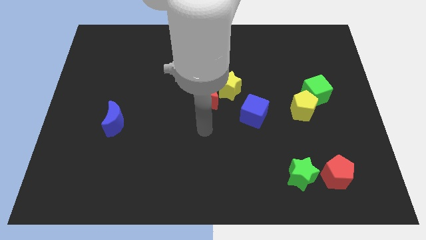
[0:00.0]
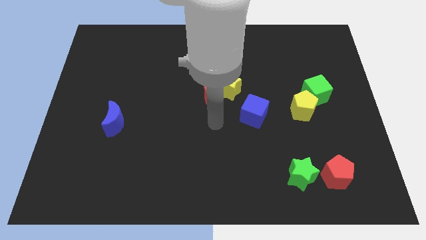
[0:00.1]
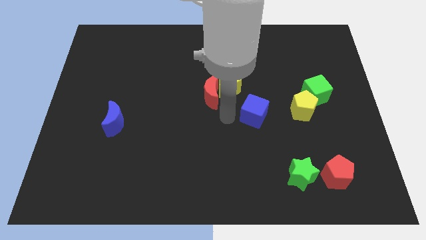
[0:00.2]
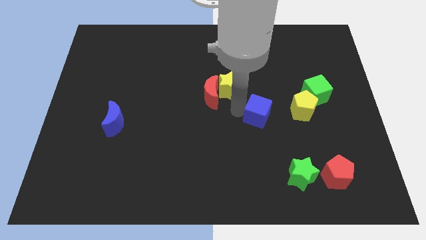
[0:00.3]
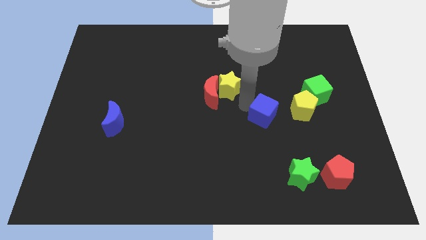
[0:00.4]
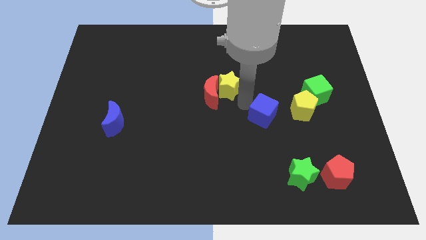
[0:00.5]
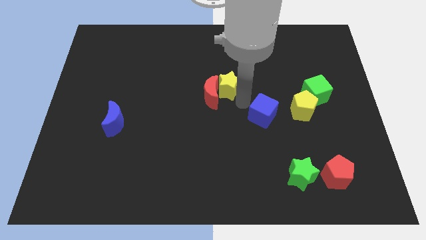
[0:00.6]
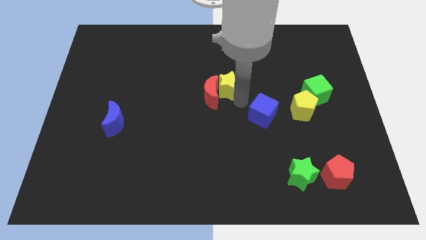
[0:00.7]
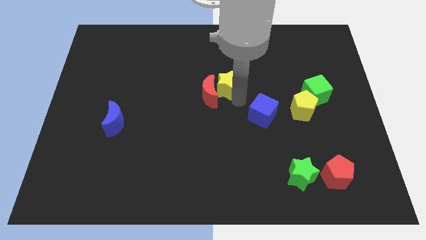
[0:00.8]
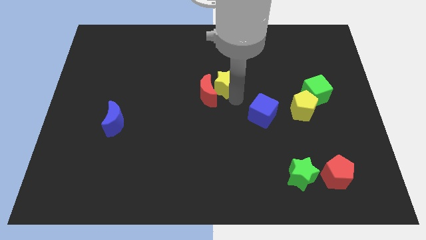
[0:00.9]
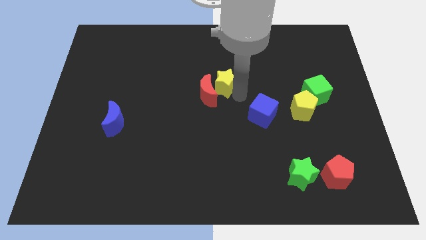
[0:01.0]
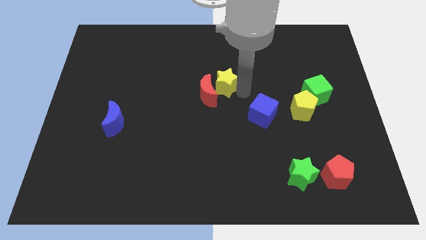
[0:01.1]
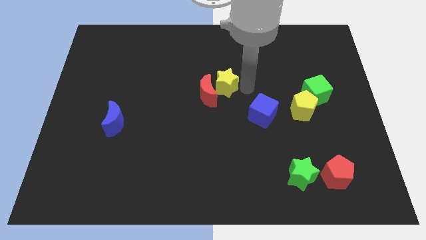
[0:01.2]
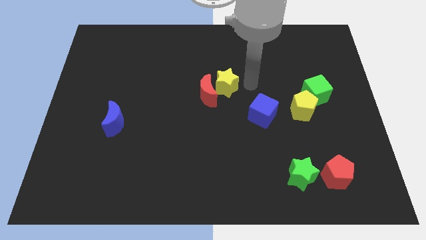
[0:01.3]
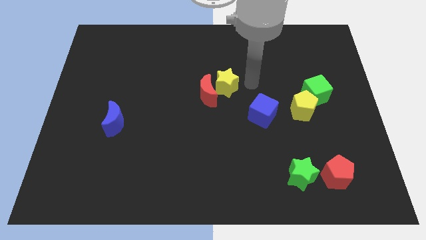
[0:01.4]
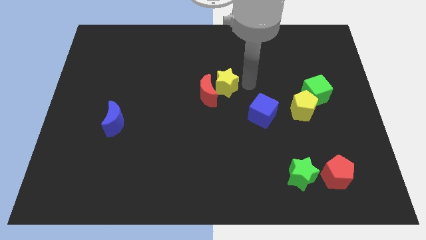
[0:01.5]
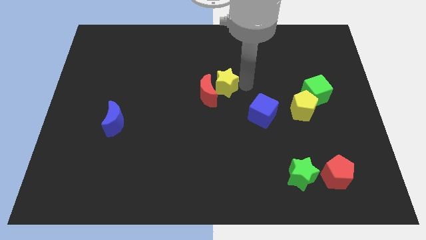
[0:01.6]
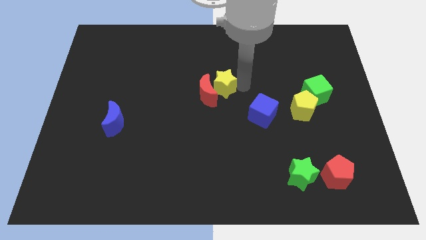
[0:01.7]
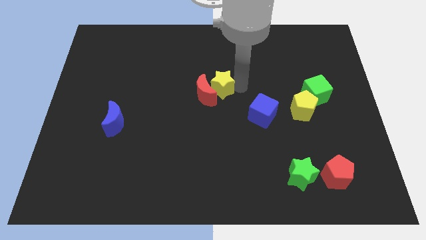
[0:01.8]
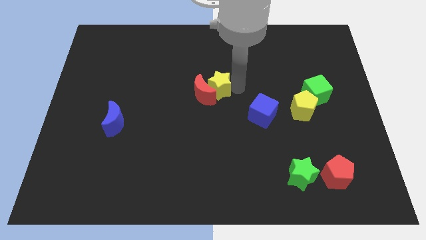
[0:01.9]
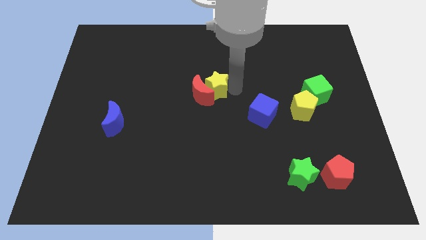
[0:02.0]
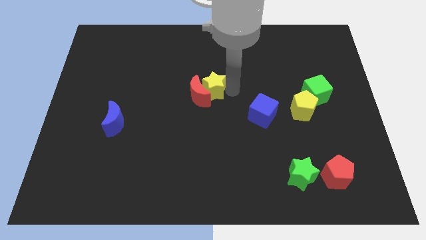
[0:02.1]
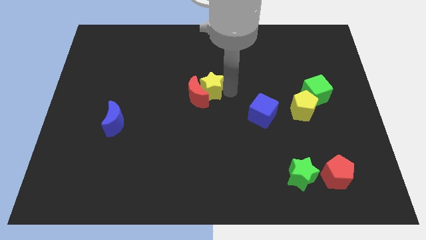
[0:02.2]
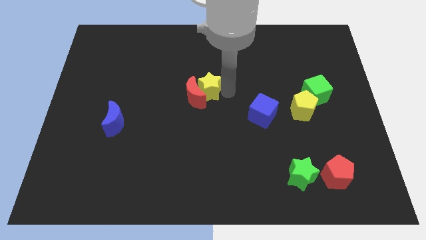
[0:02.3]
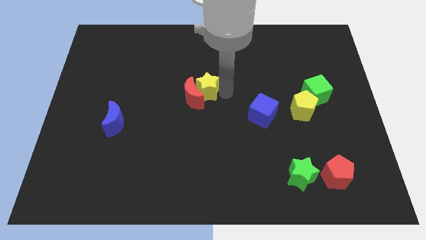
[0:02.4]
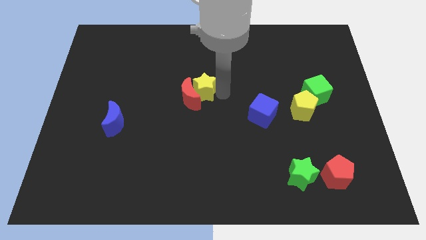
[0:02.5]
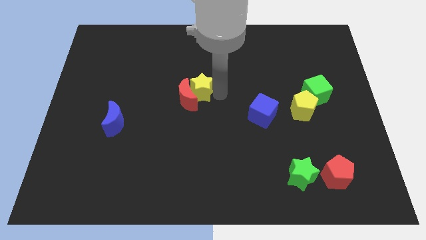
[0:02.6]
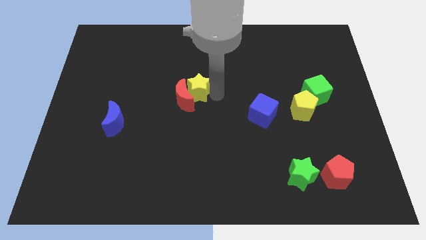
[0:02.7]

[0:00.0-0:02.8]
push the yellow star left somewhat

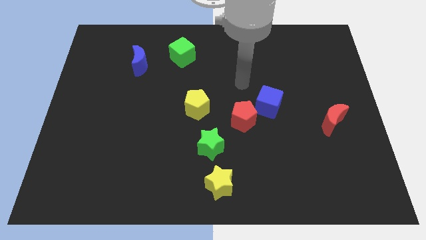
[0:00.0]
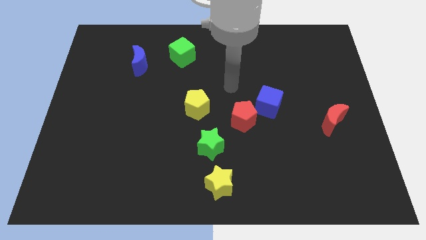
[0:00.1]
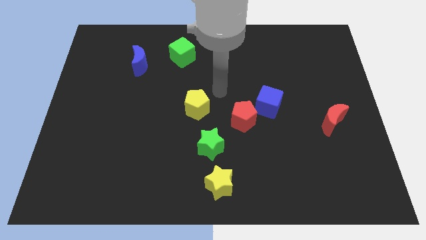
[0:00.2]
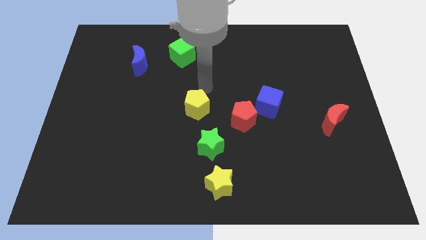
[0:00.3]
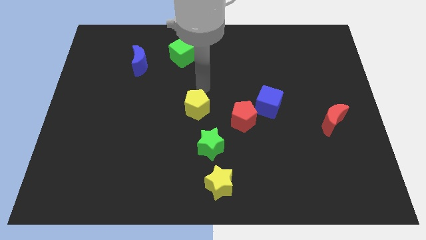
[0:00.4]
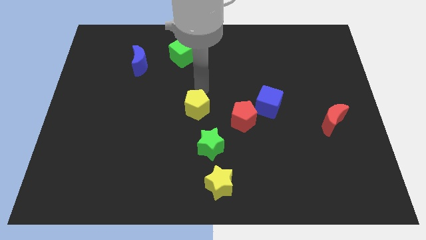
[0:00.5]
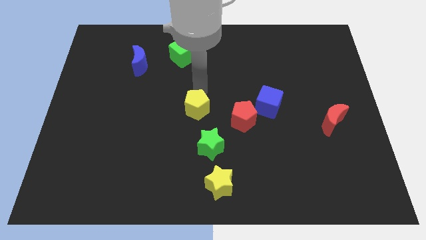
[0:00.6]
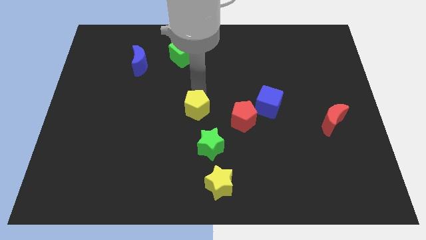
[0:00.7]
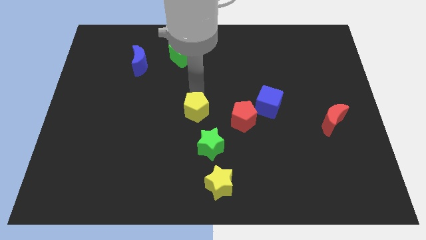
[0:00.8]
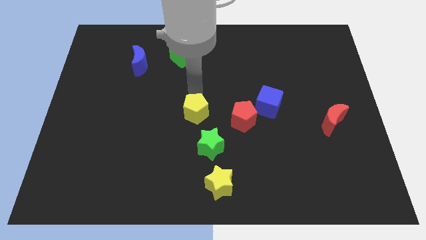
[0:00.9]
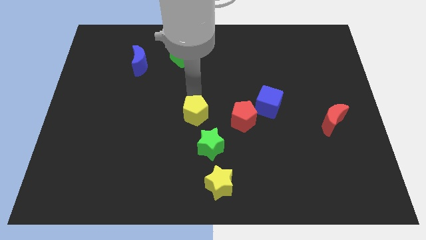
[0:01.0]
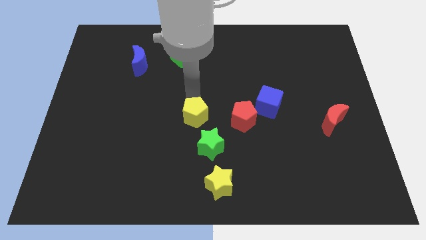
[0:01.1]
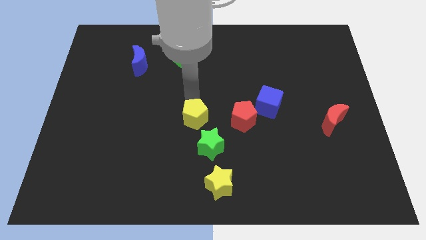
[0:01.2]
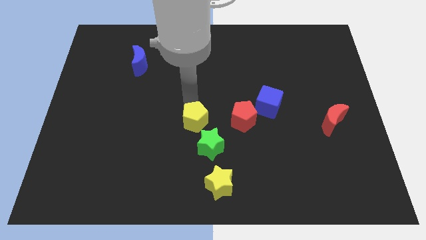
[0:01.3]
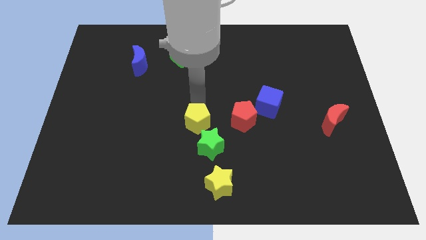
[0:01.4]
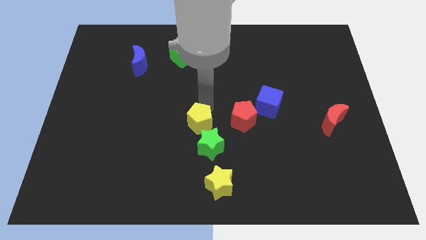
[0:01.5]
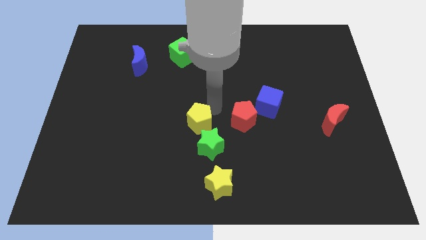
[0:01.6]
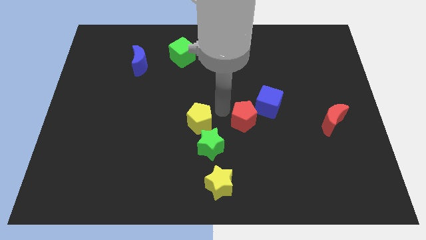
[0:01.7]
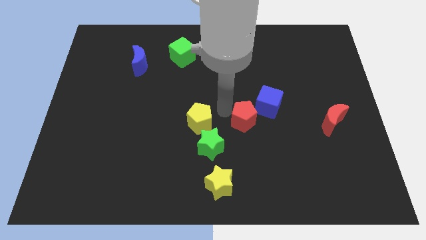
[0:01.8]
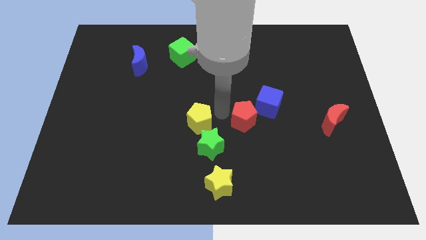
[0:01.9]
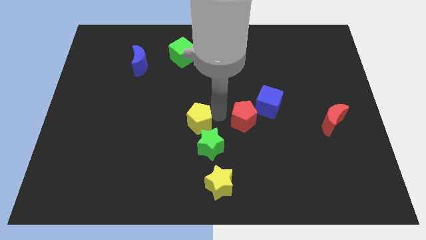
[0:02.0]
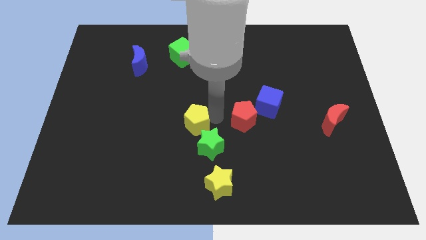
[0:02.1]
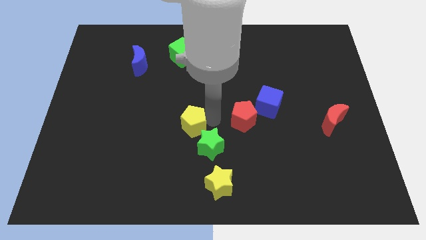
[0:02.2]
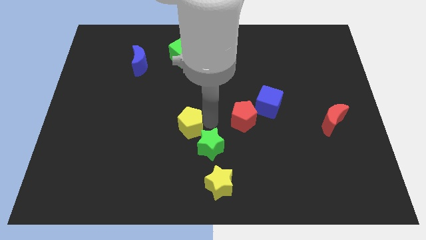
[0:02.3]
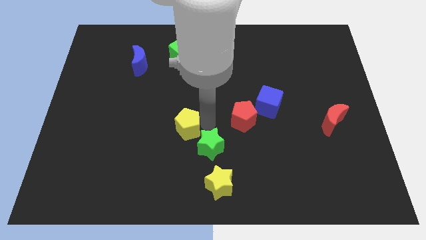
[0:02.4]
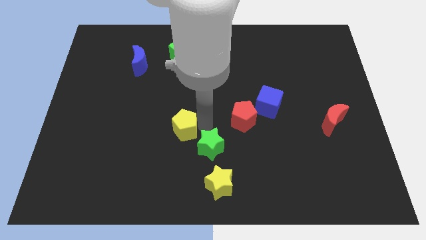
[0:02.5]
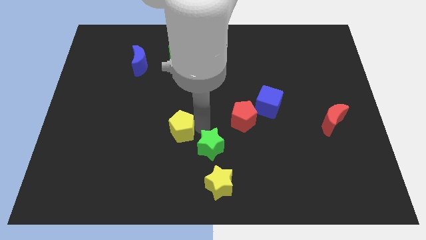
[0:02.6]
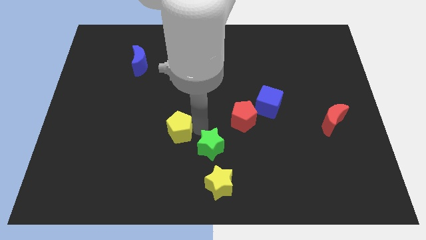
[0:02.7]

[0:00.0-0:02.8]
slightly slide the yellow pentagon diagonally down and left

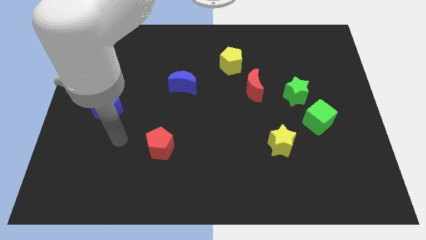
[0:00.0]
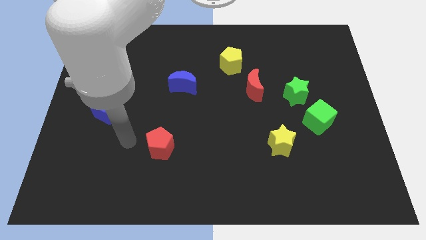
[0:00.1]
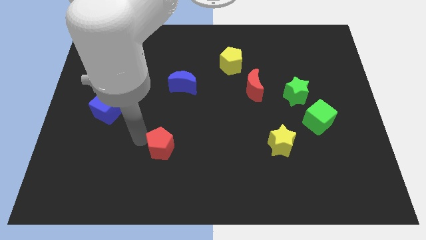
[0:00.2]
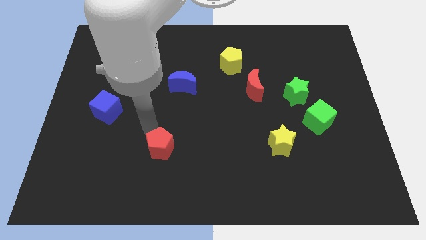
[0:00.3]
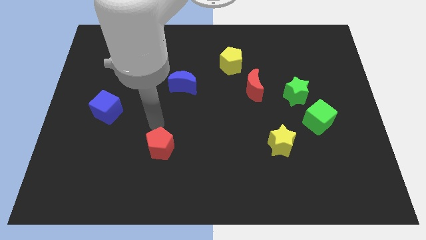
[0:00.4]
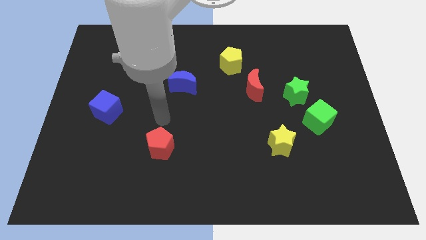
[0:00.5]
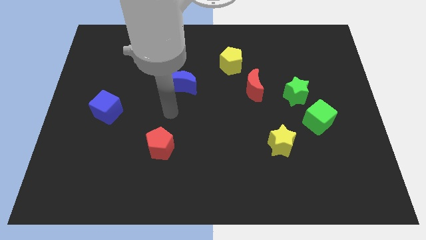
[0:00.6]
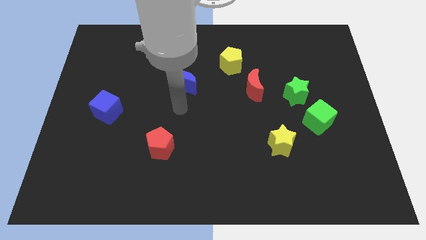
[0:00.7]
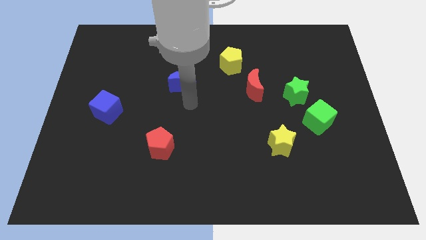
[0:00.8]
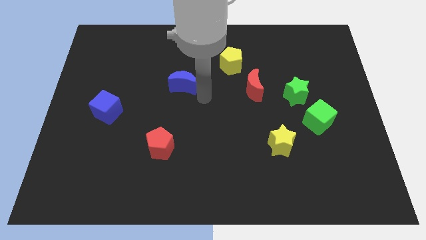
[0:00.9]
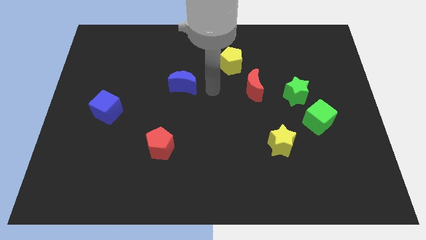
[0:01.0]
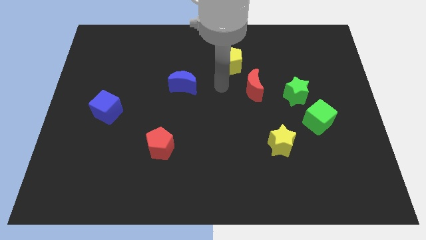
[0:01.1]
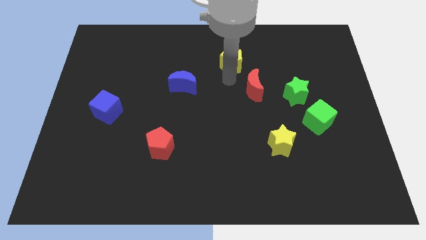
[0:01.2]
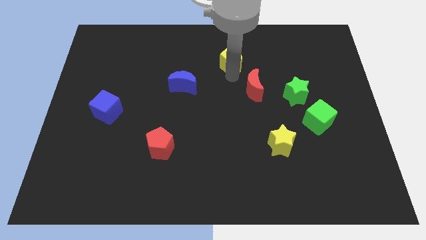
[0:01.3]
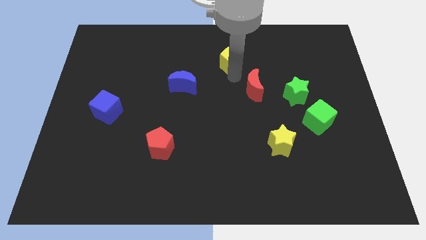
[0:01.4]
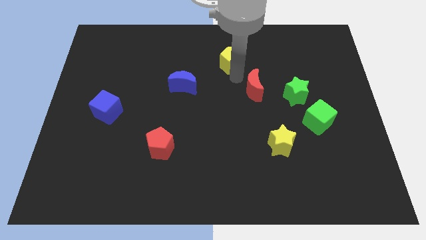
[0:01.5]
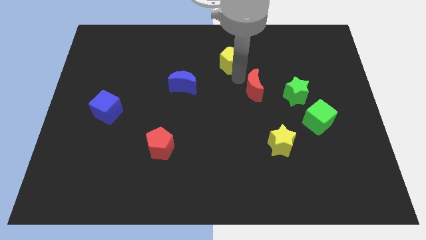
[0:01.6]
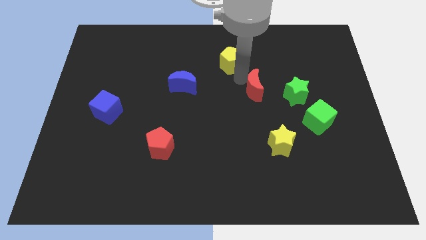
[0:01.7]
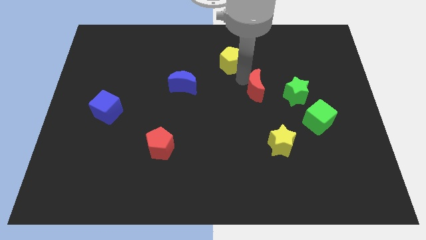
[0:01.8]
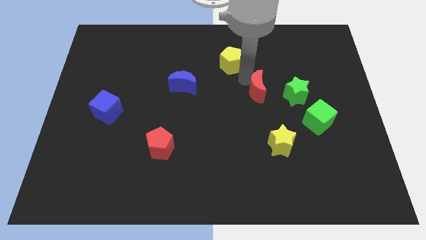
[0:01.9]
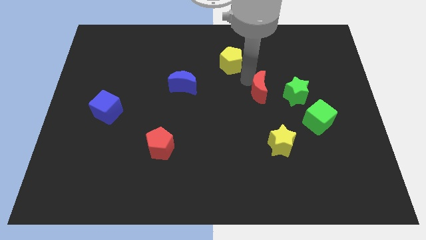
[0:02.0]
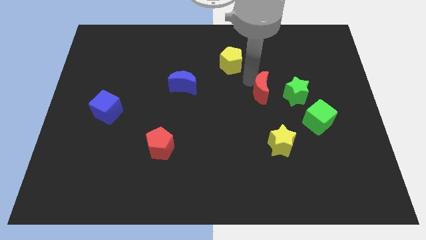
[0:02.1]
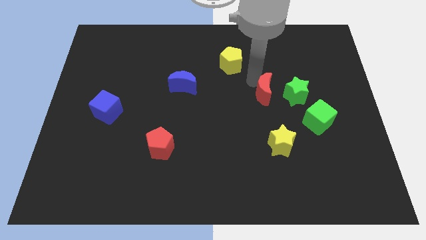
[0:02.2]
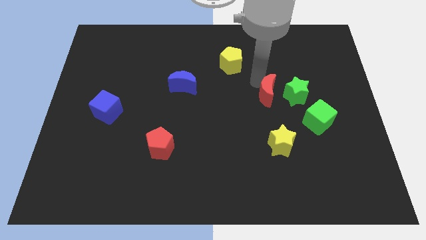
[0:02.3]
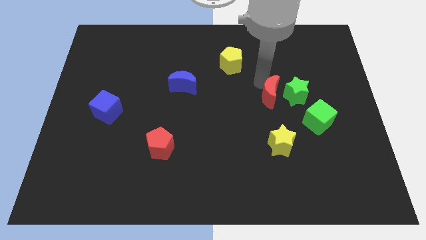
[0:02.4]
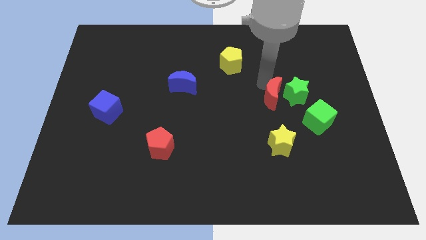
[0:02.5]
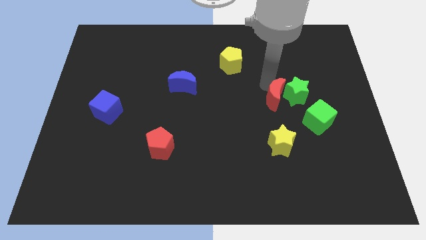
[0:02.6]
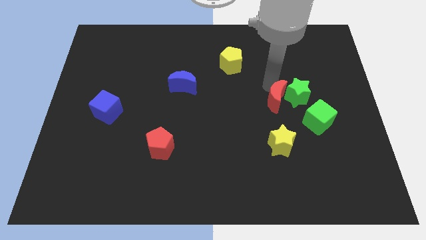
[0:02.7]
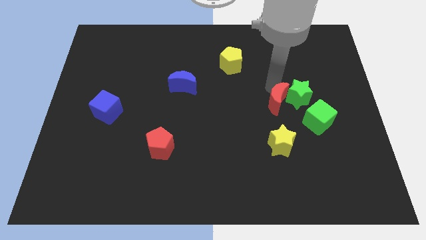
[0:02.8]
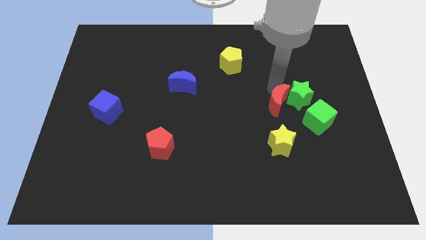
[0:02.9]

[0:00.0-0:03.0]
move the red moon a little diagonally downwards and to the right
